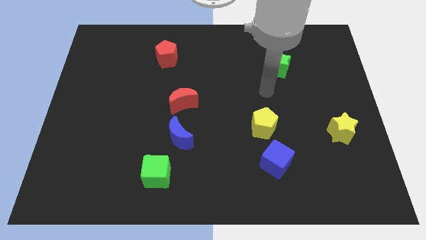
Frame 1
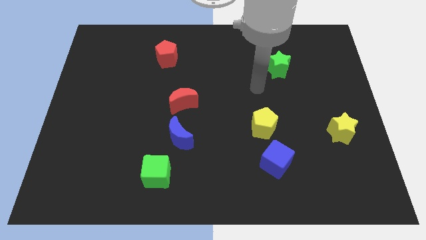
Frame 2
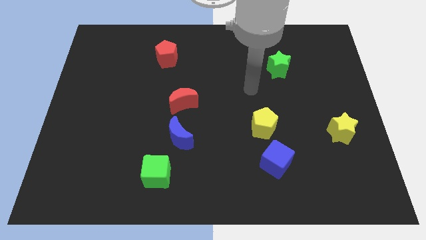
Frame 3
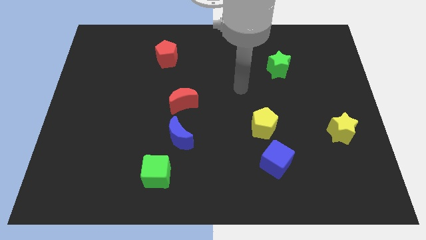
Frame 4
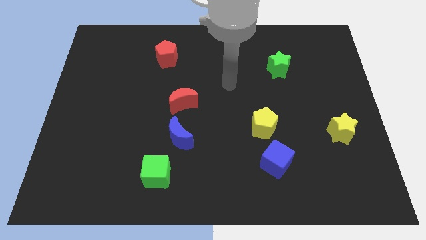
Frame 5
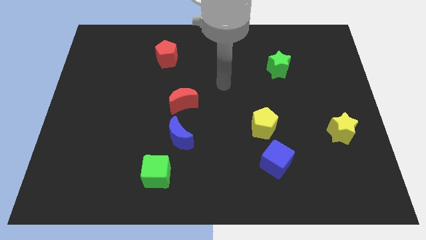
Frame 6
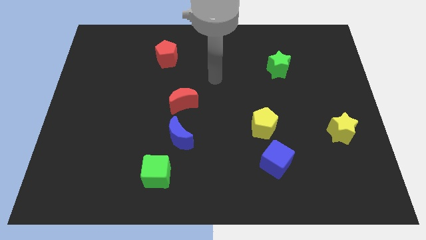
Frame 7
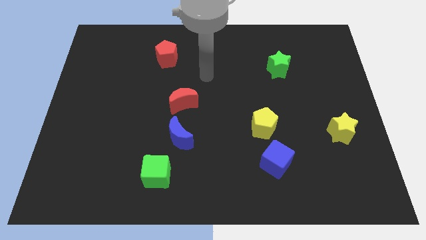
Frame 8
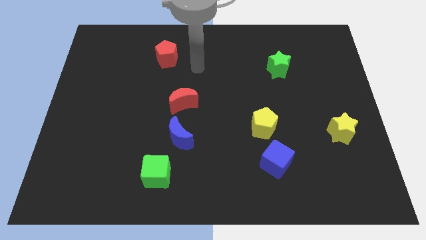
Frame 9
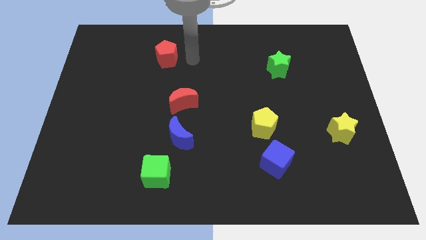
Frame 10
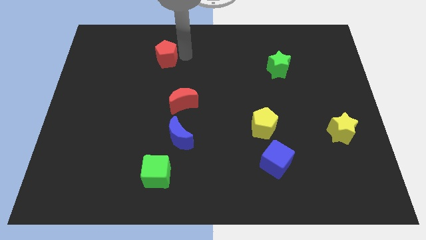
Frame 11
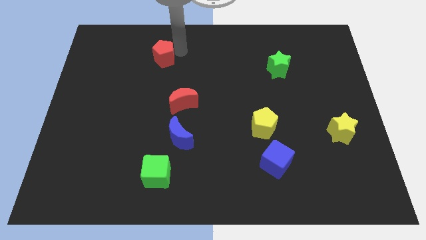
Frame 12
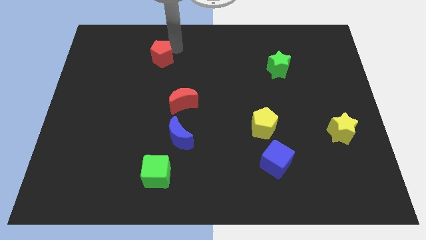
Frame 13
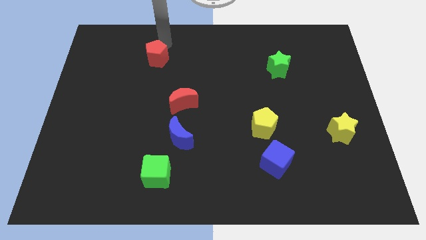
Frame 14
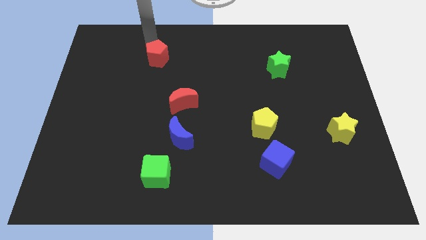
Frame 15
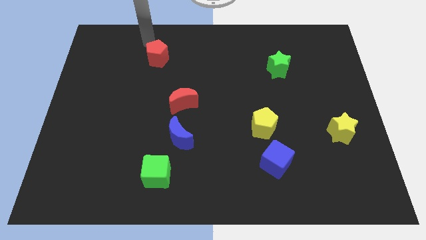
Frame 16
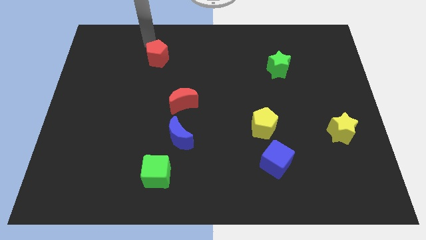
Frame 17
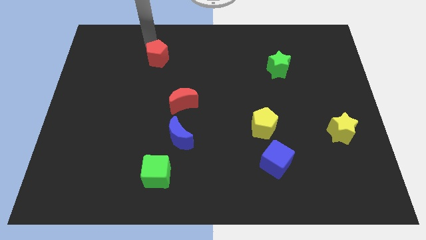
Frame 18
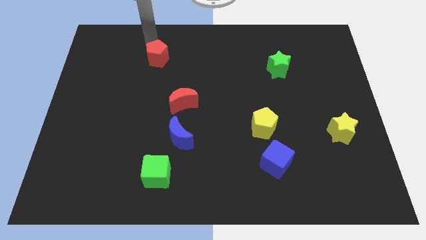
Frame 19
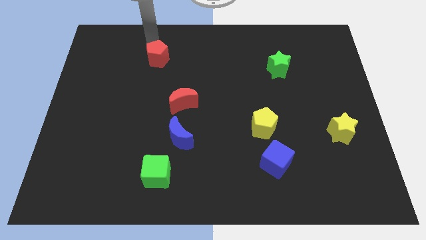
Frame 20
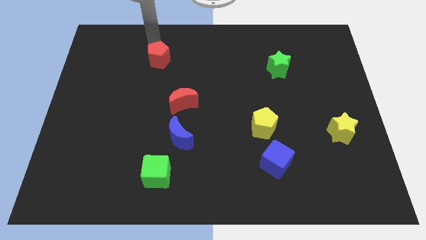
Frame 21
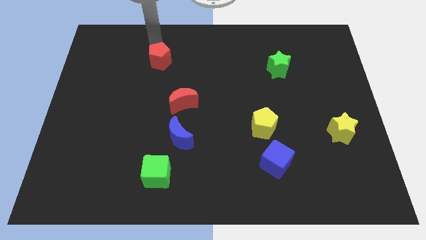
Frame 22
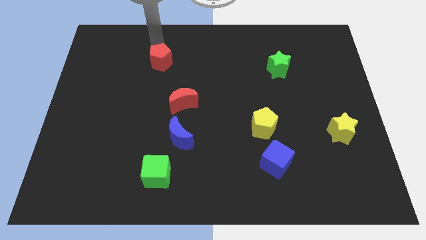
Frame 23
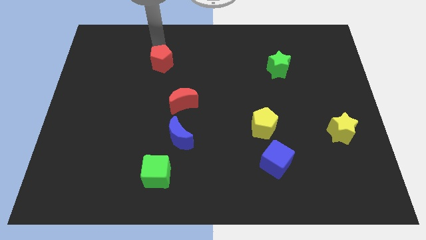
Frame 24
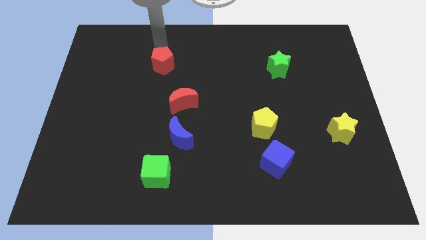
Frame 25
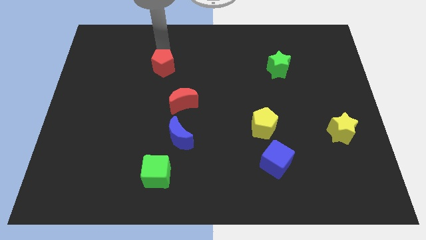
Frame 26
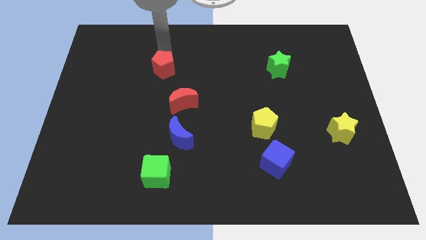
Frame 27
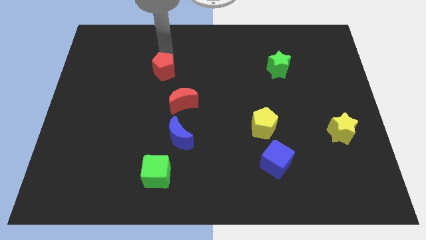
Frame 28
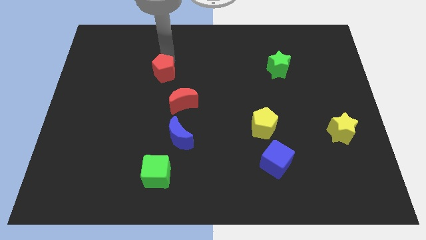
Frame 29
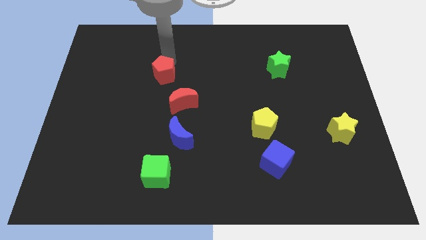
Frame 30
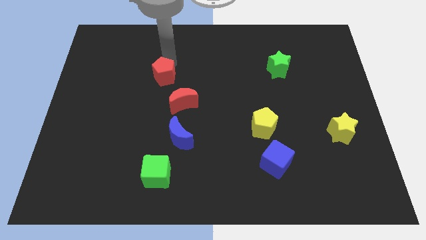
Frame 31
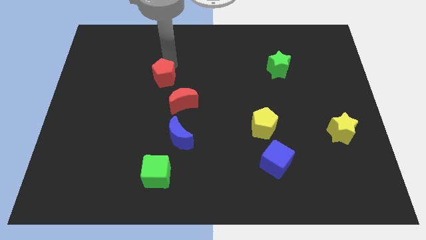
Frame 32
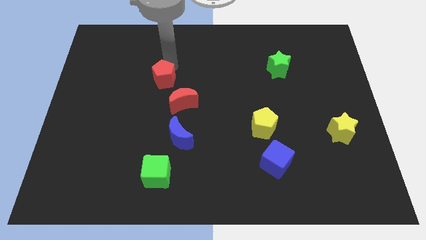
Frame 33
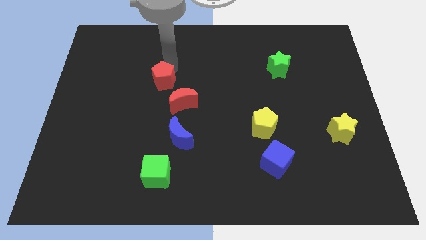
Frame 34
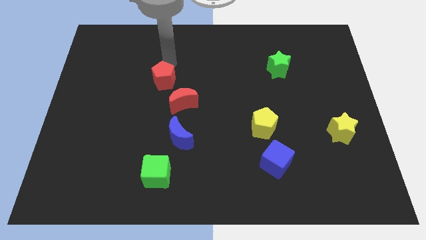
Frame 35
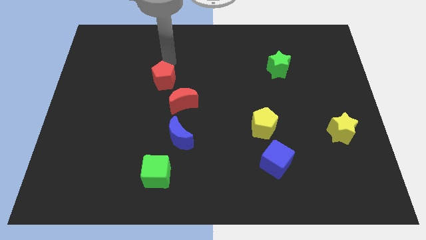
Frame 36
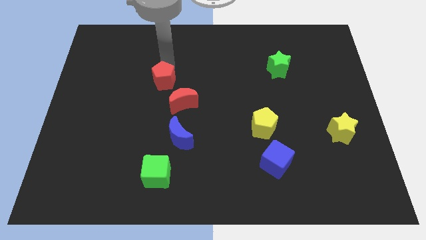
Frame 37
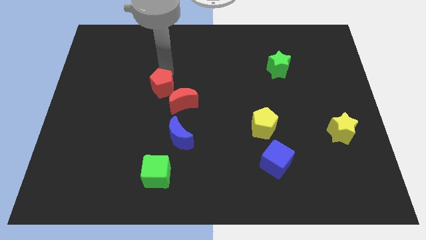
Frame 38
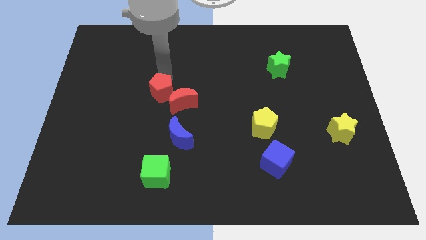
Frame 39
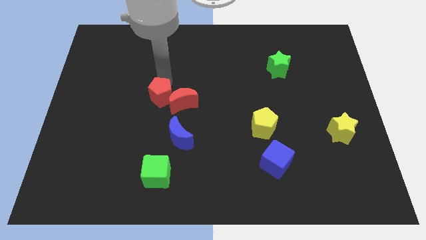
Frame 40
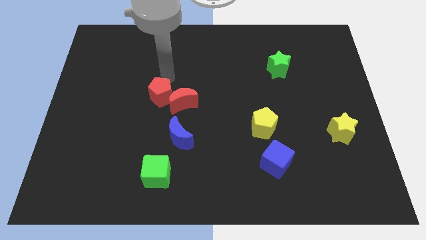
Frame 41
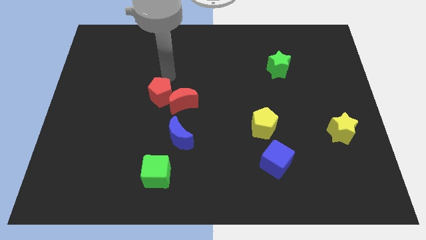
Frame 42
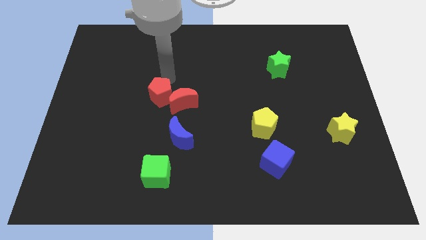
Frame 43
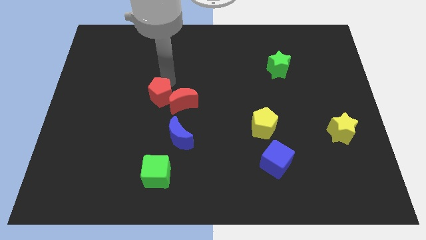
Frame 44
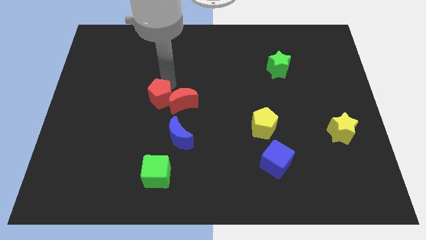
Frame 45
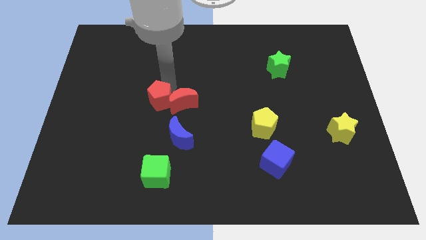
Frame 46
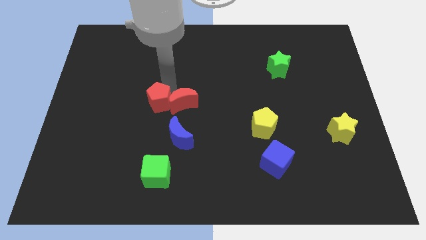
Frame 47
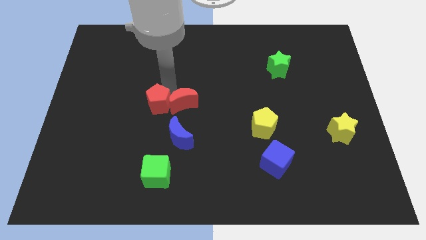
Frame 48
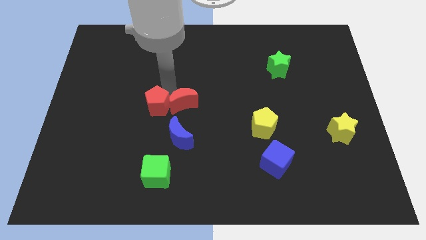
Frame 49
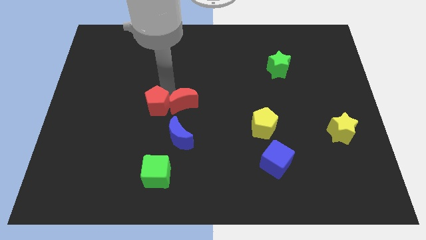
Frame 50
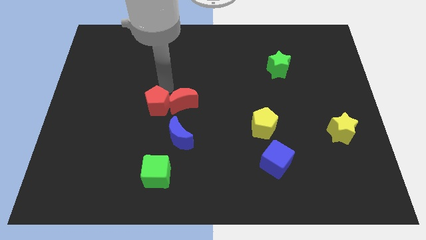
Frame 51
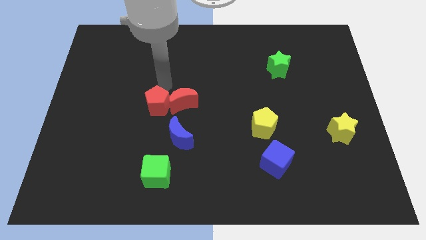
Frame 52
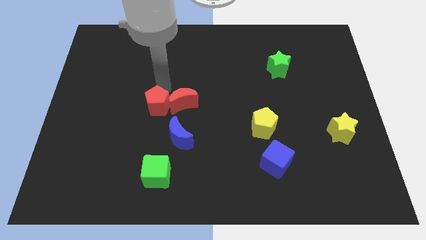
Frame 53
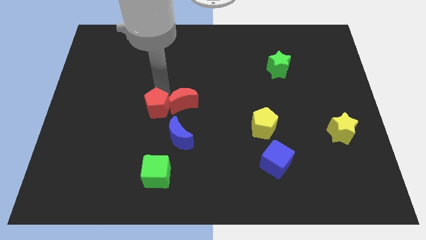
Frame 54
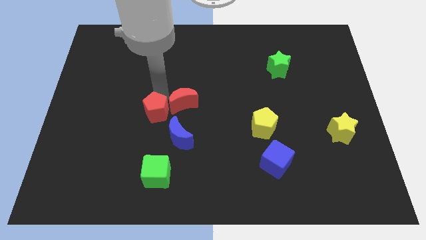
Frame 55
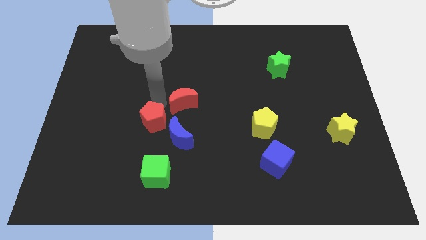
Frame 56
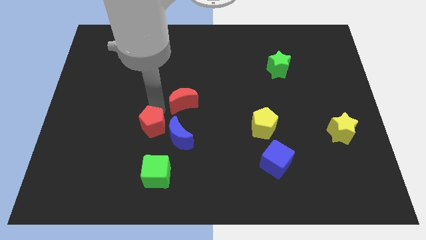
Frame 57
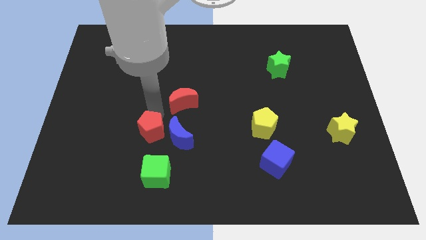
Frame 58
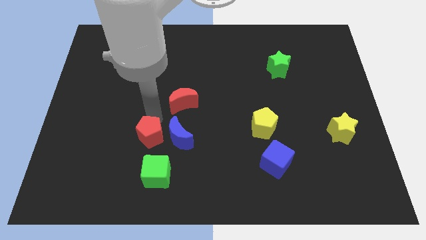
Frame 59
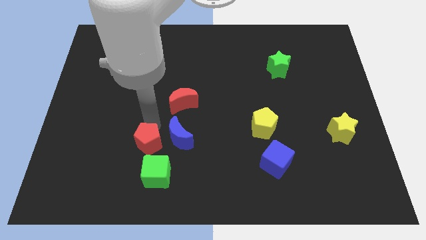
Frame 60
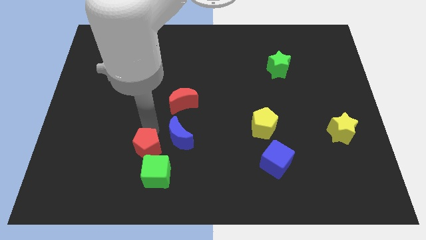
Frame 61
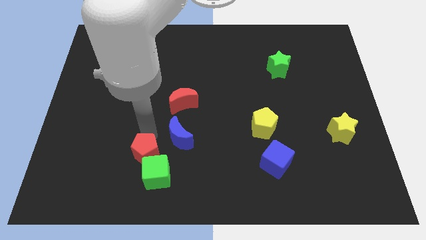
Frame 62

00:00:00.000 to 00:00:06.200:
slide the red pentagon close to the green cube

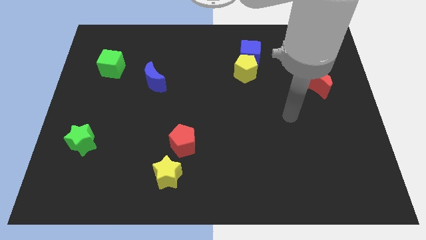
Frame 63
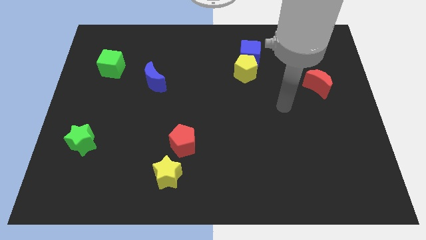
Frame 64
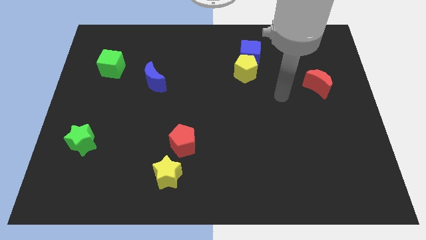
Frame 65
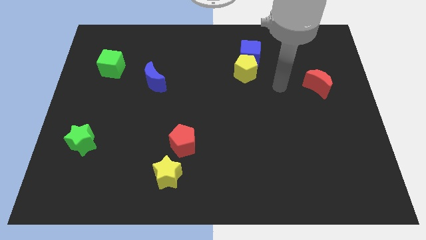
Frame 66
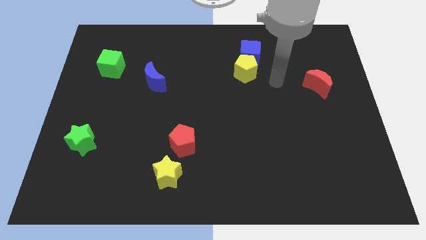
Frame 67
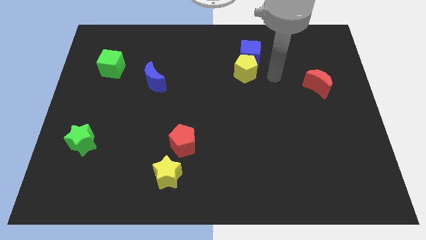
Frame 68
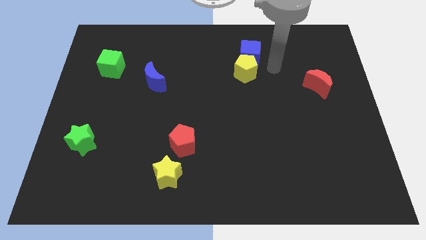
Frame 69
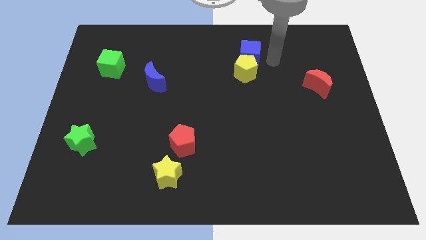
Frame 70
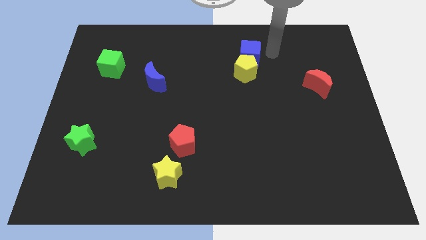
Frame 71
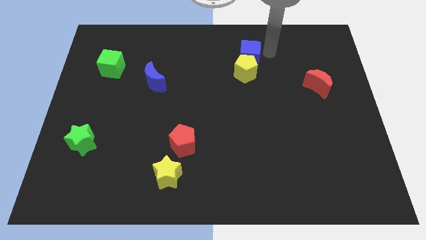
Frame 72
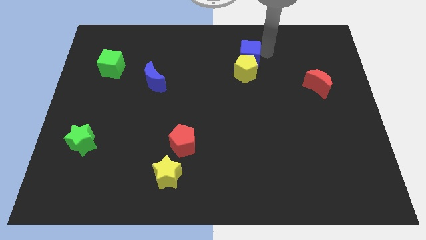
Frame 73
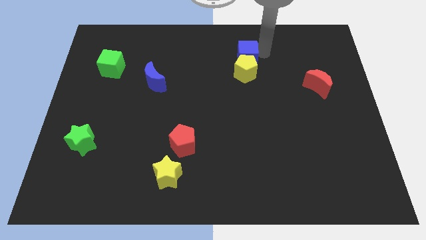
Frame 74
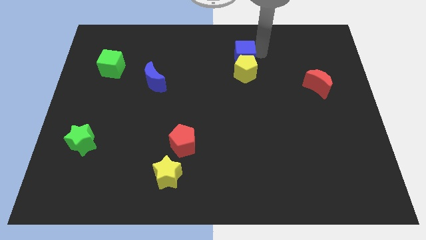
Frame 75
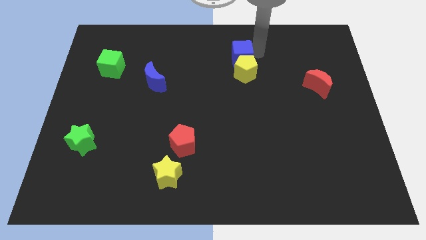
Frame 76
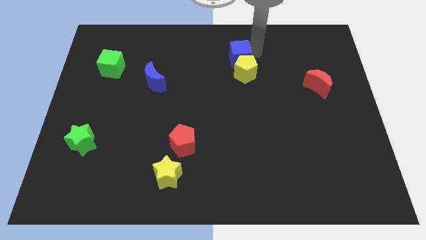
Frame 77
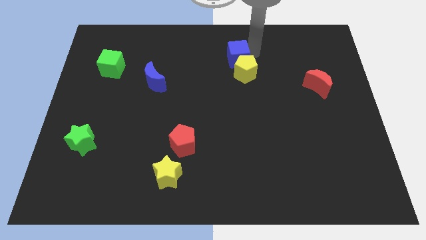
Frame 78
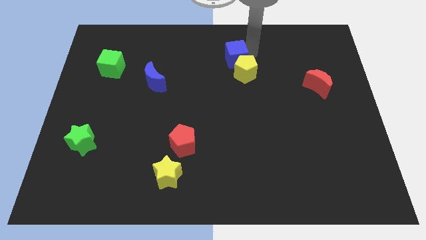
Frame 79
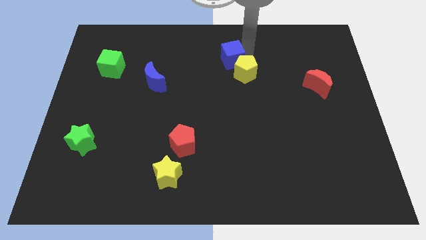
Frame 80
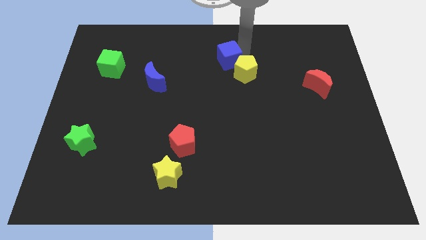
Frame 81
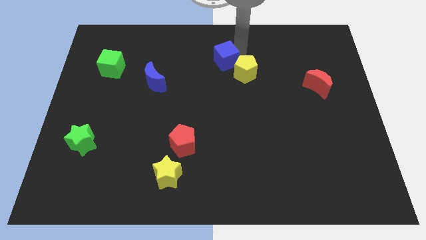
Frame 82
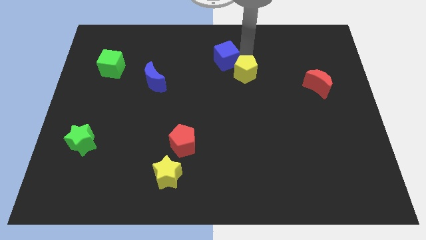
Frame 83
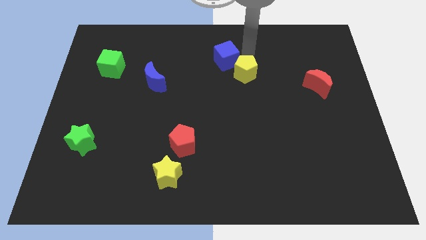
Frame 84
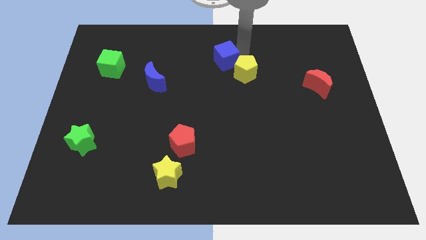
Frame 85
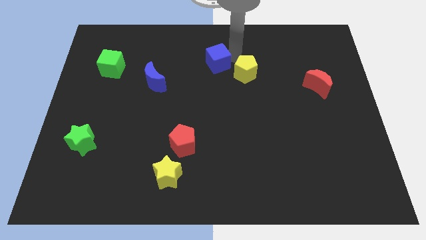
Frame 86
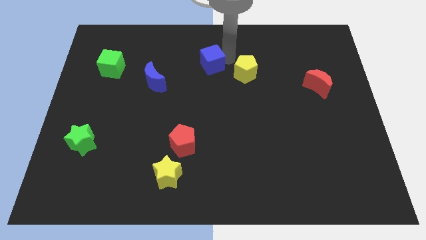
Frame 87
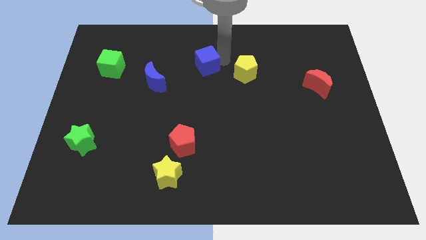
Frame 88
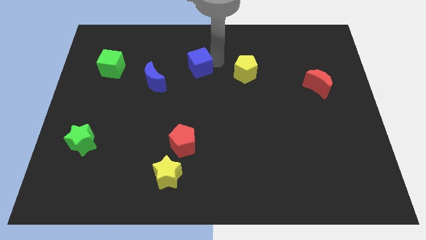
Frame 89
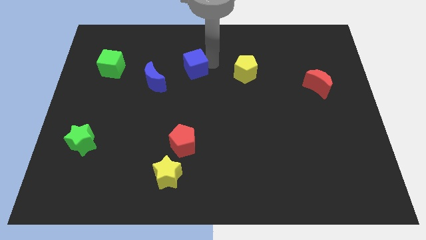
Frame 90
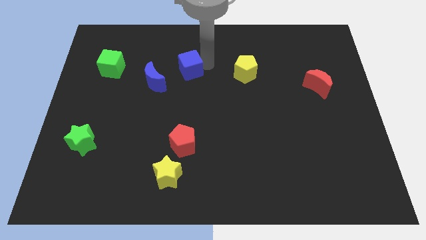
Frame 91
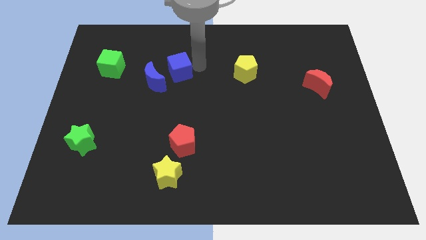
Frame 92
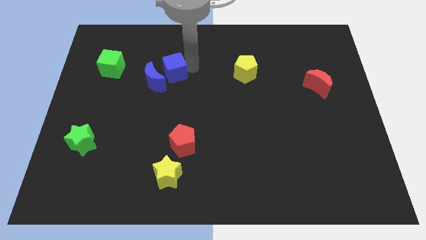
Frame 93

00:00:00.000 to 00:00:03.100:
move the blue cube close to the blue moon
